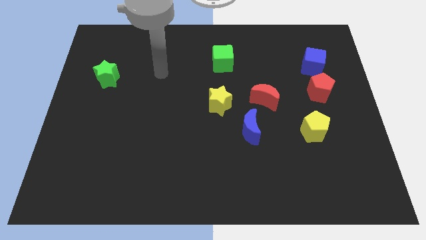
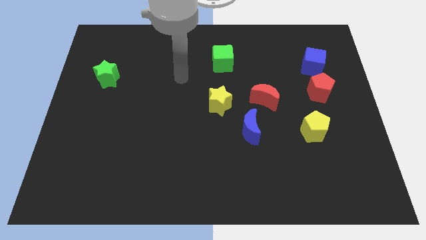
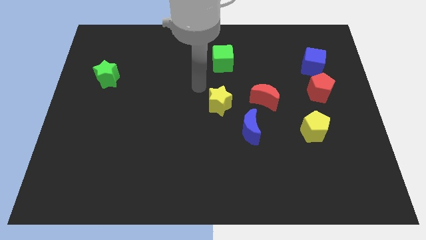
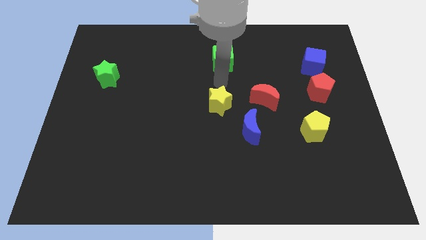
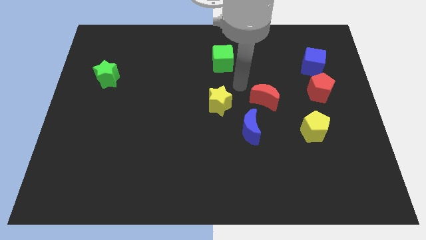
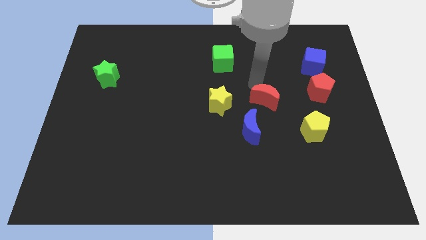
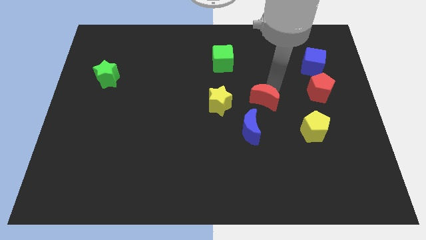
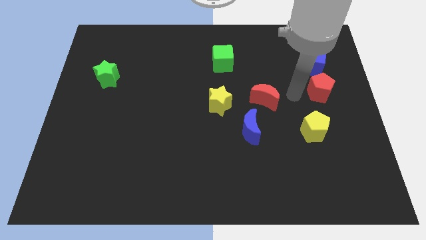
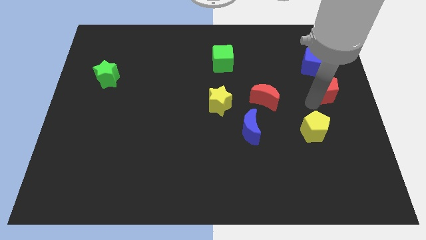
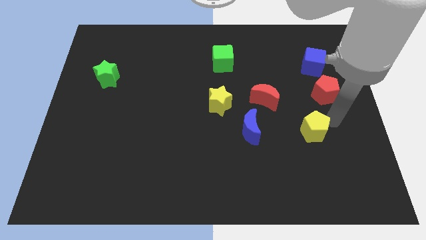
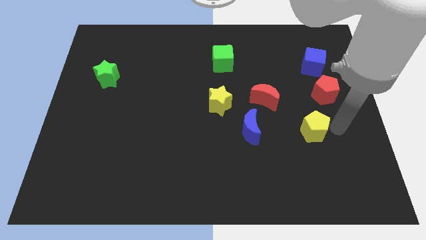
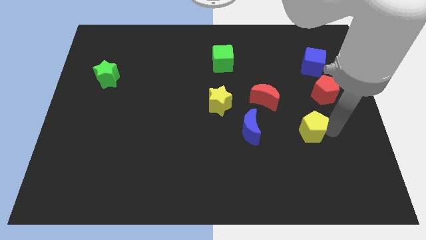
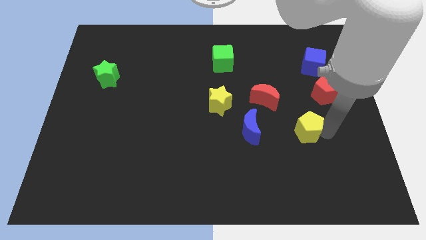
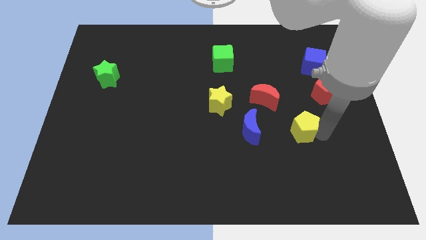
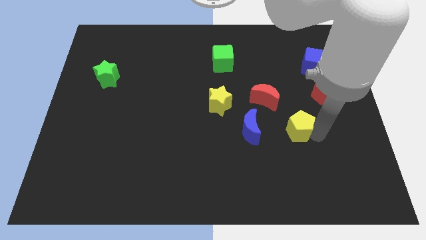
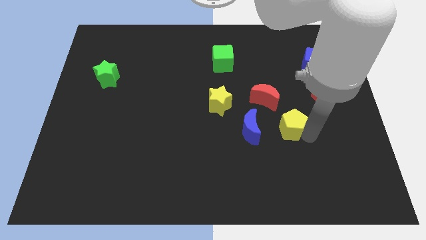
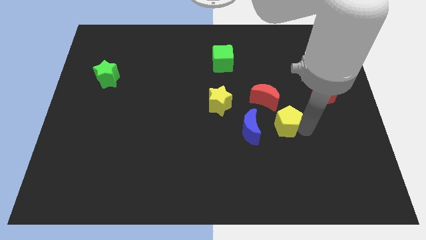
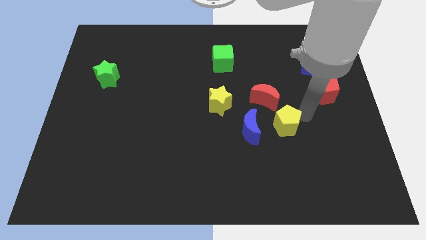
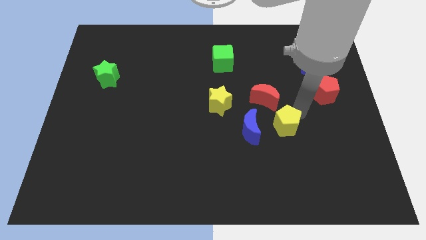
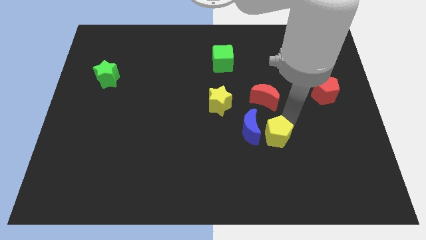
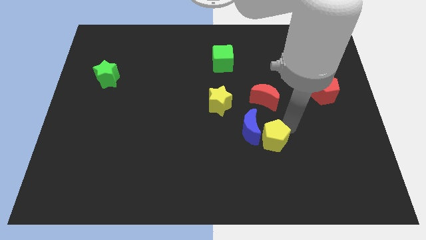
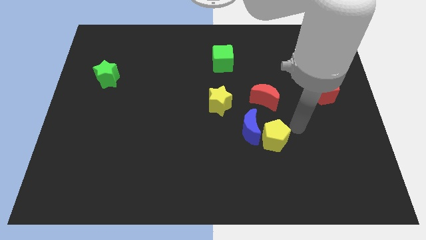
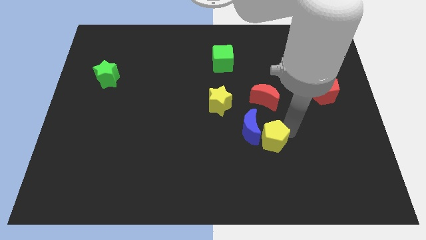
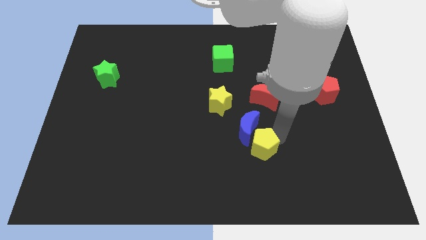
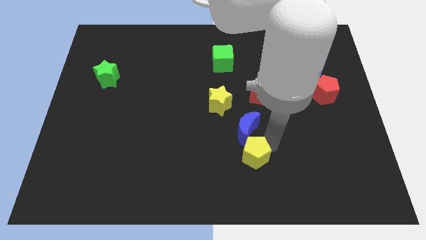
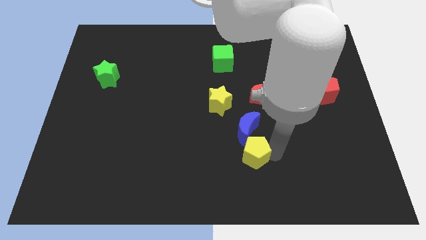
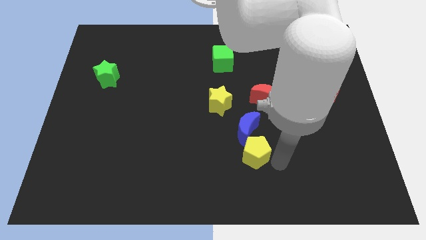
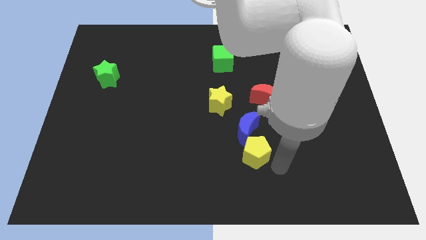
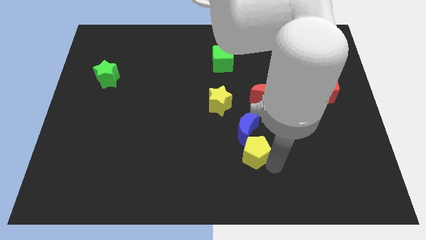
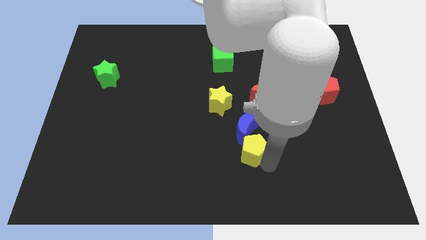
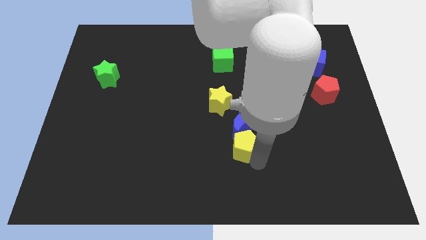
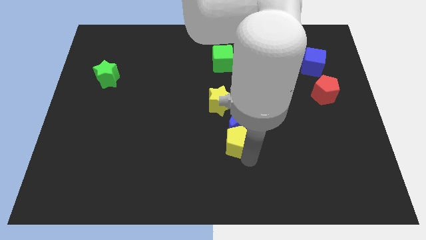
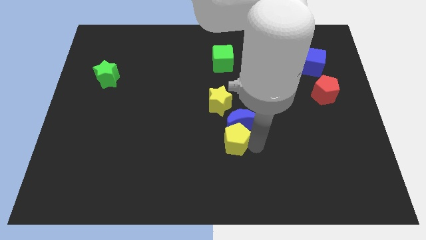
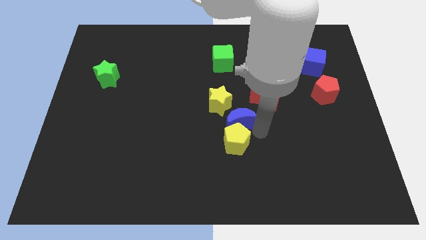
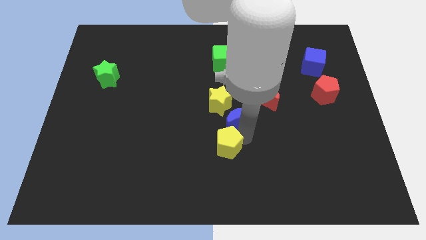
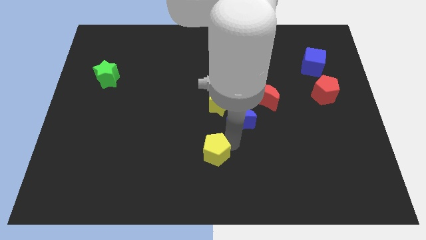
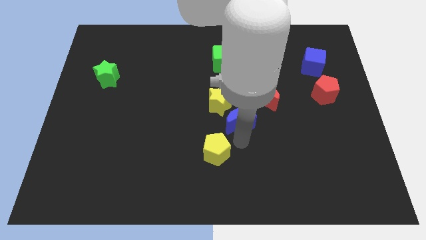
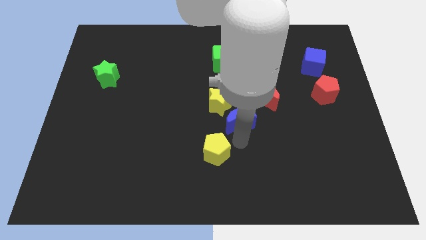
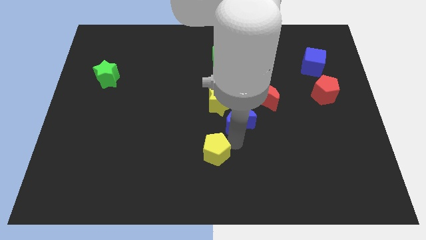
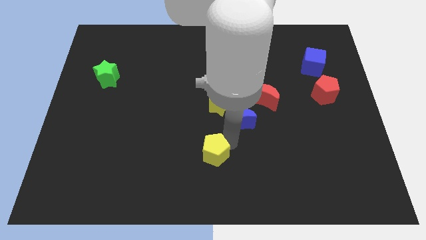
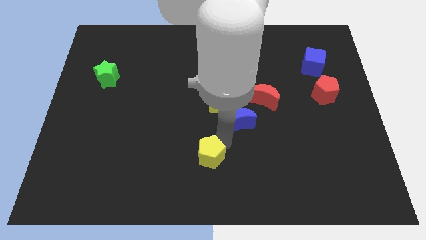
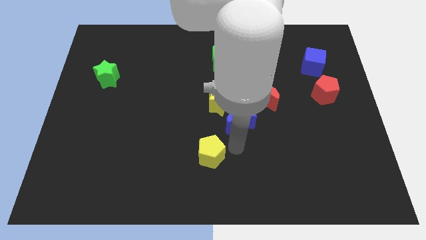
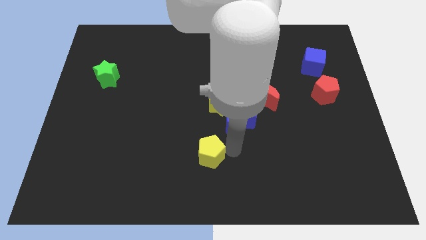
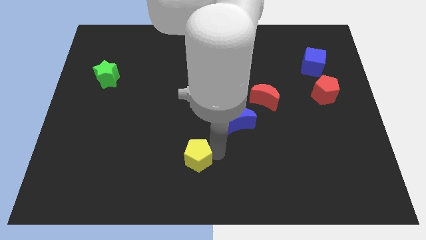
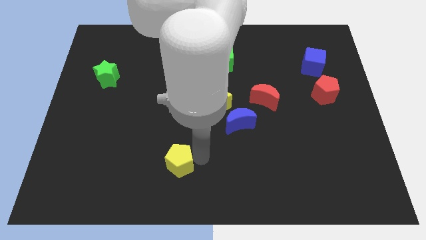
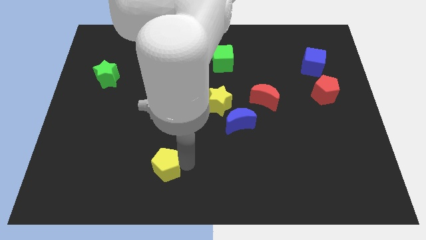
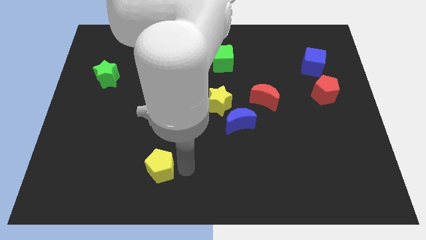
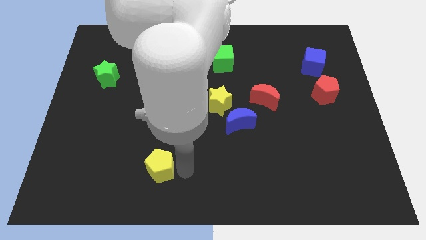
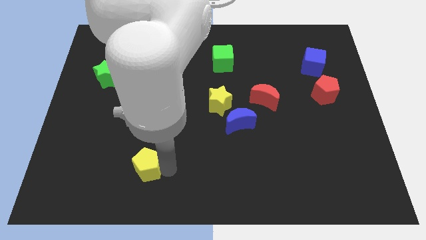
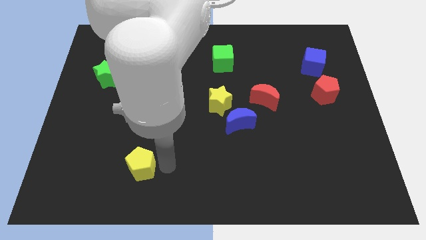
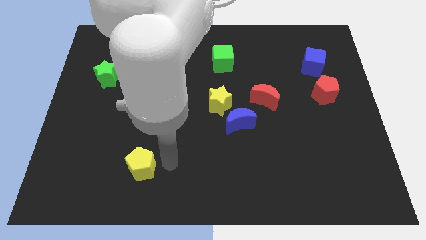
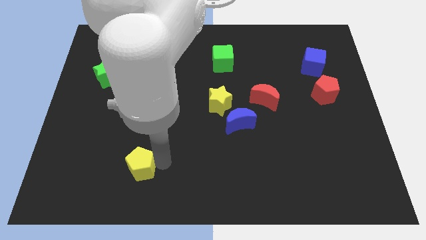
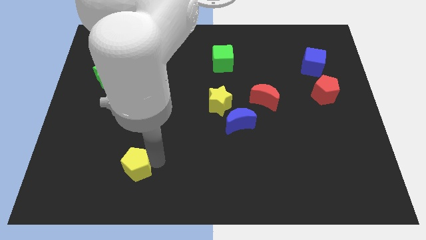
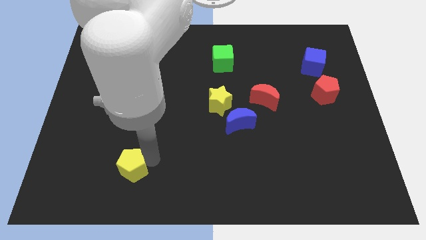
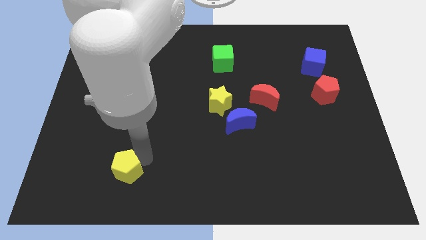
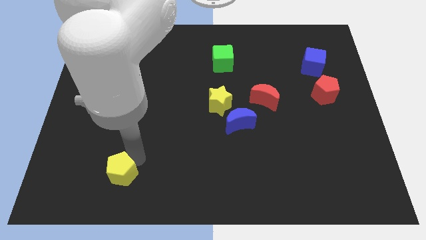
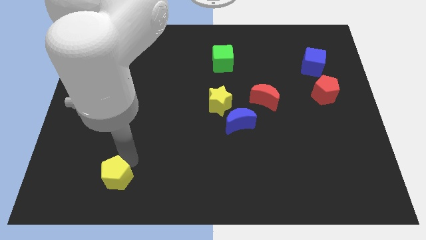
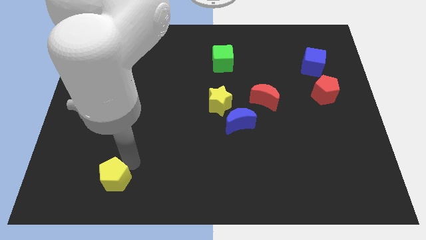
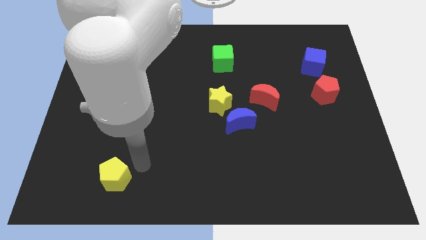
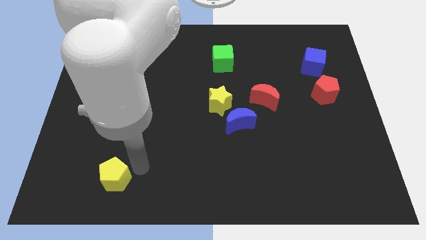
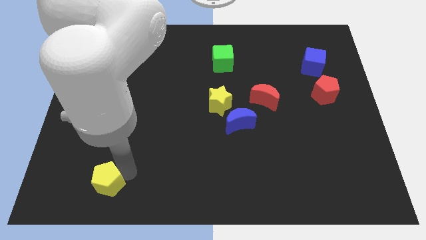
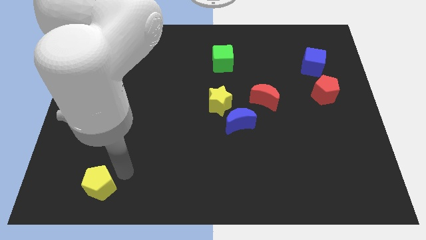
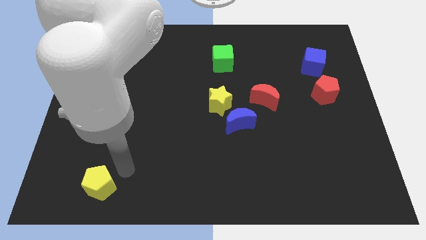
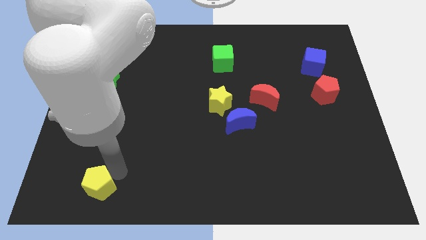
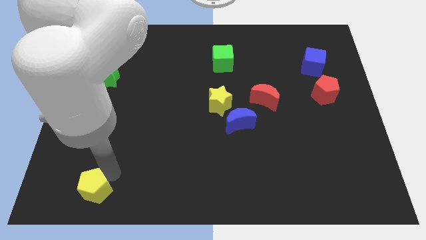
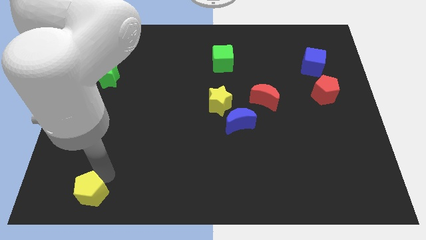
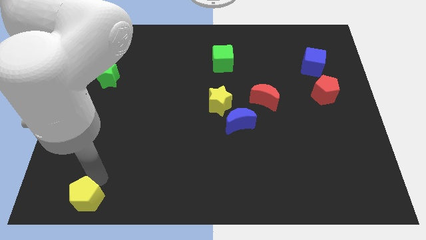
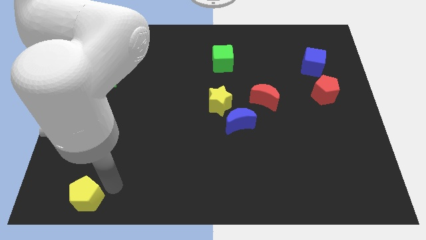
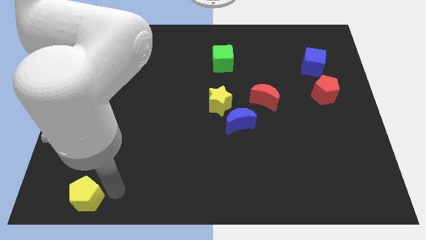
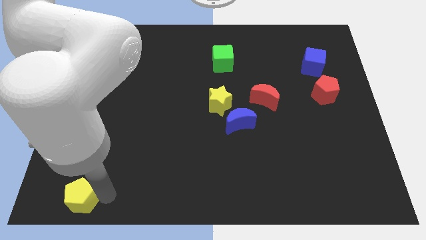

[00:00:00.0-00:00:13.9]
push the yellow pentagon to the lower left corner

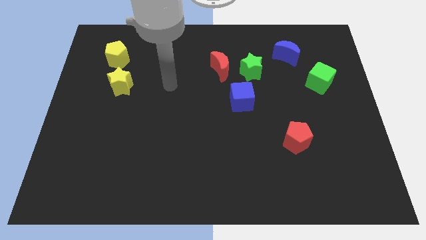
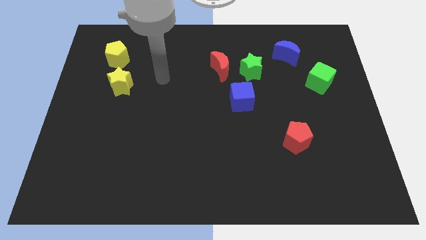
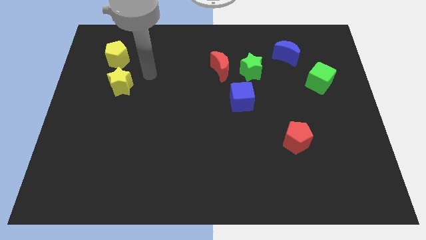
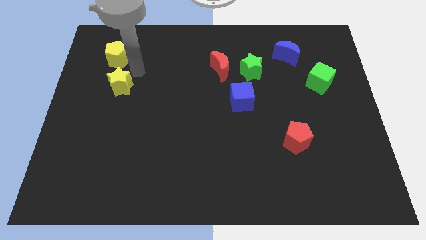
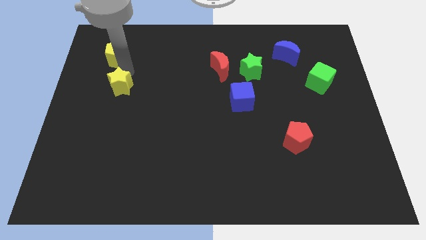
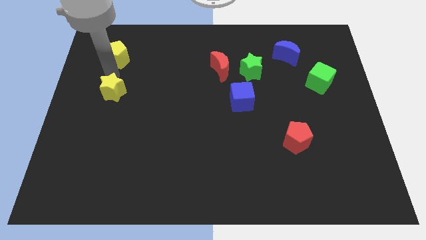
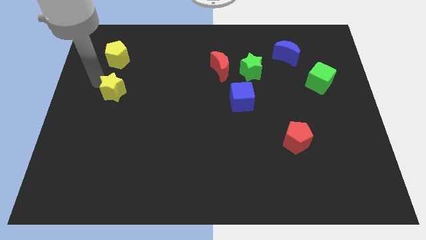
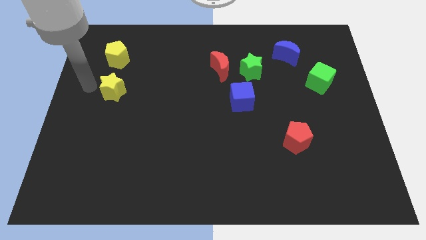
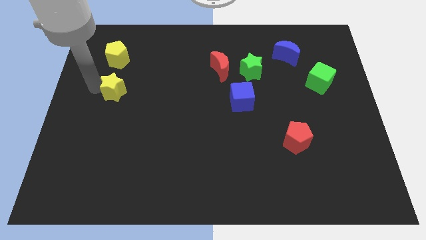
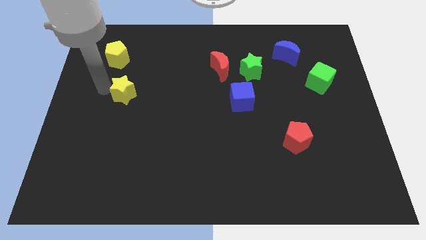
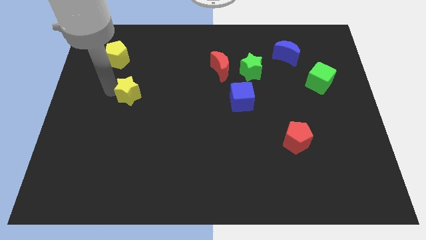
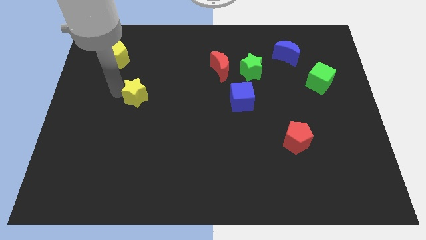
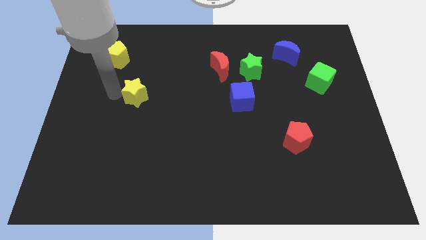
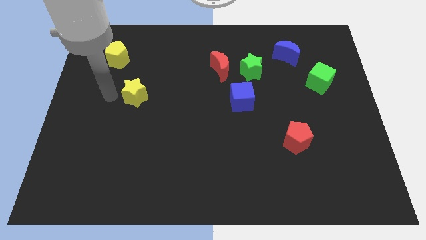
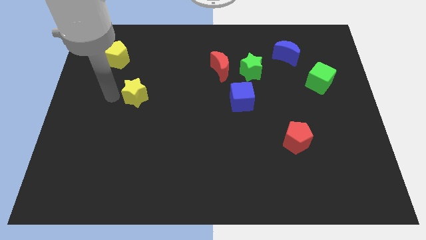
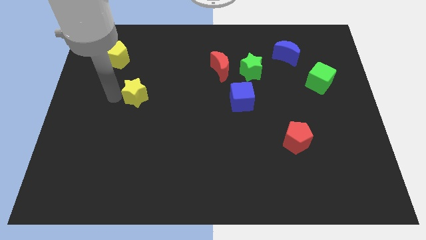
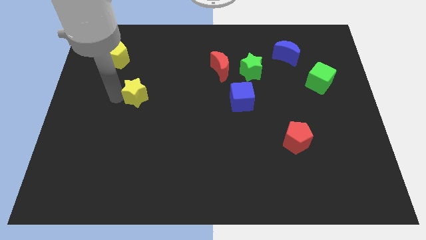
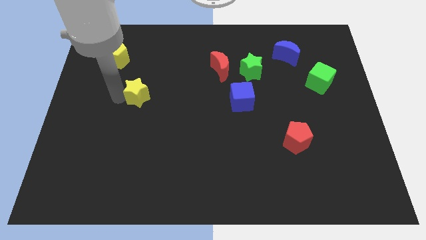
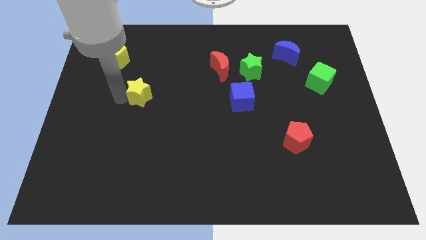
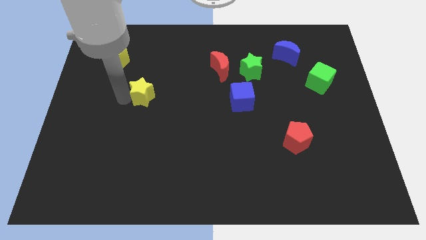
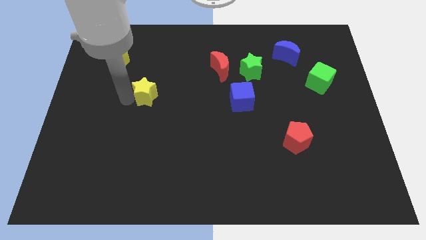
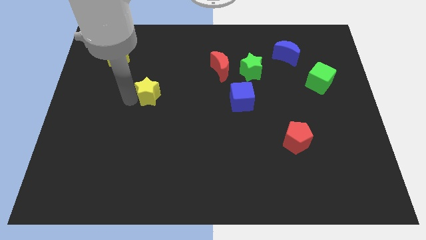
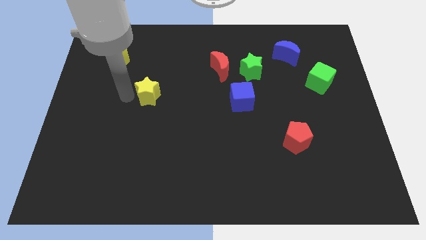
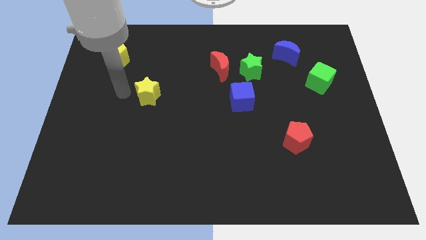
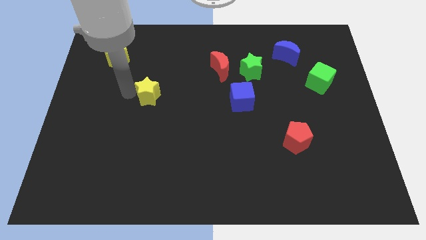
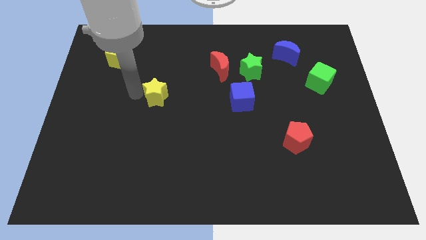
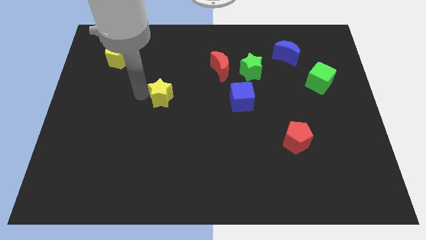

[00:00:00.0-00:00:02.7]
slide the yellow star to the middle
